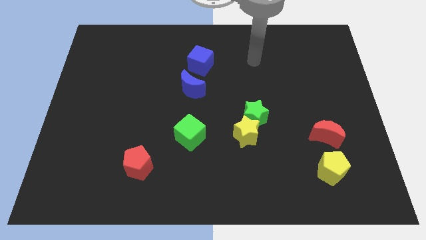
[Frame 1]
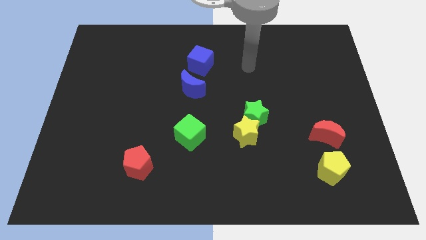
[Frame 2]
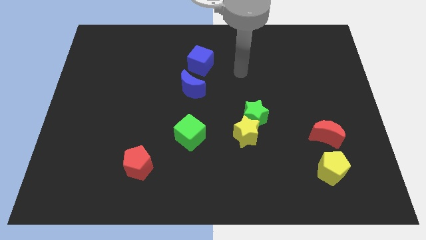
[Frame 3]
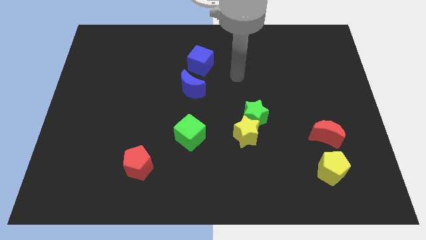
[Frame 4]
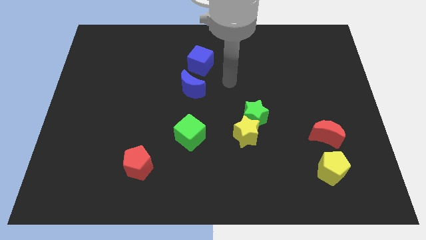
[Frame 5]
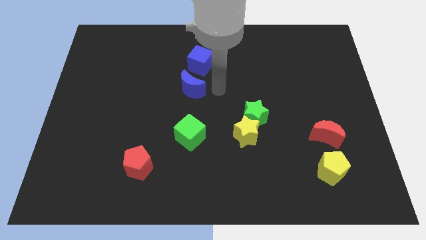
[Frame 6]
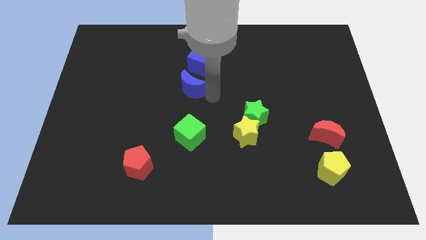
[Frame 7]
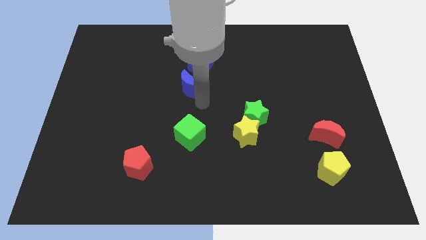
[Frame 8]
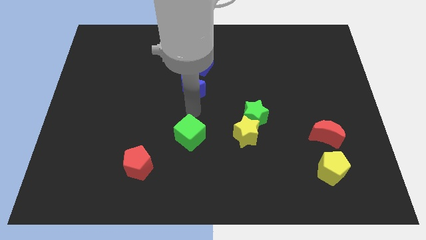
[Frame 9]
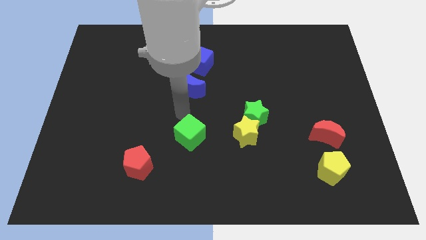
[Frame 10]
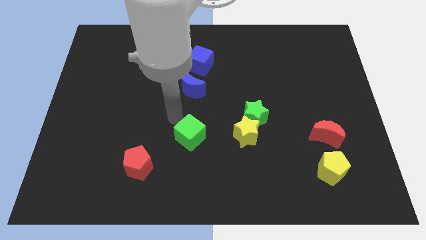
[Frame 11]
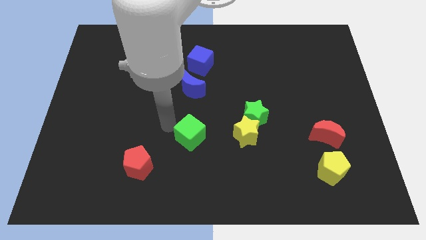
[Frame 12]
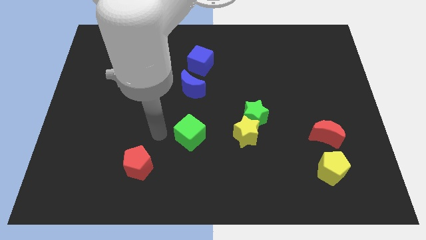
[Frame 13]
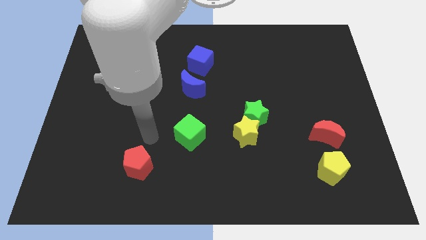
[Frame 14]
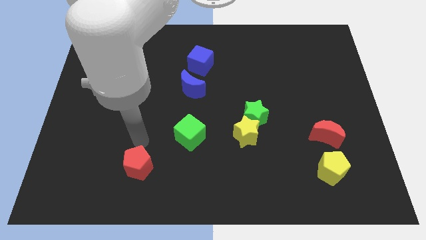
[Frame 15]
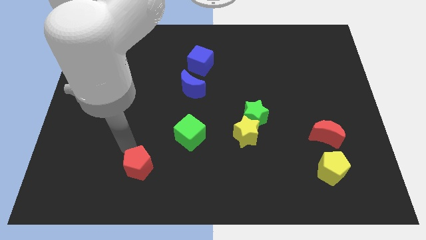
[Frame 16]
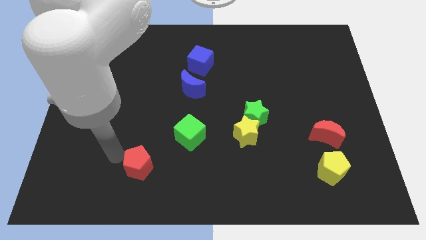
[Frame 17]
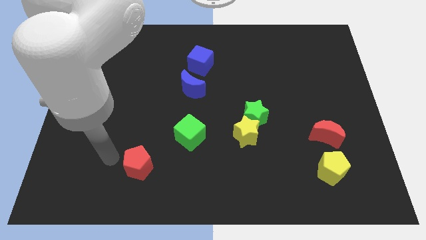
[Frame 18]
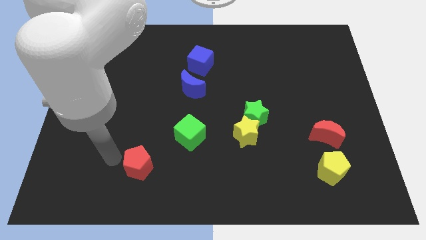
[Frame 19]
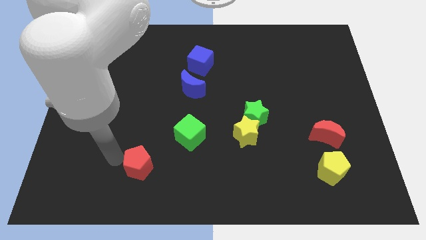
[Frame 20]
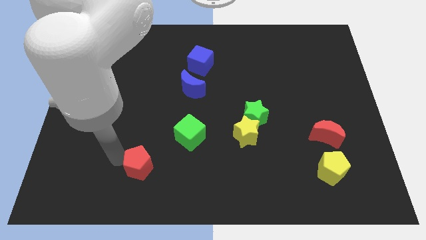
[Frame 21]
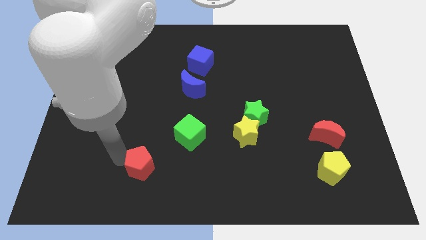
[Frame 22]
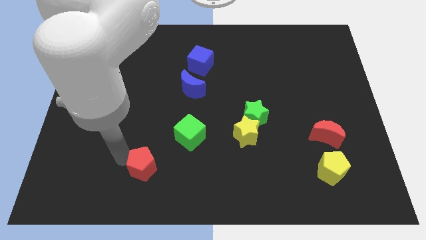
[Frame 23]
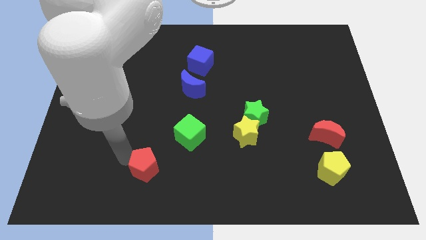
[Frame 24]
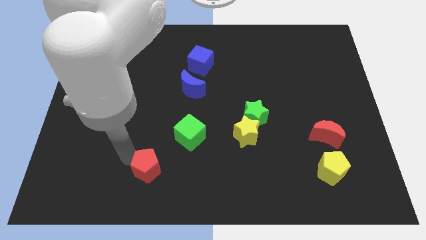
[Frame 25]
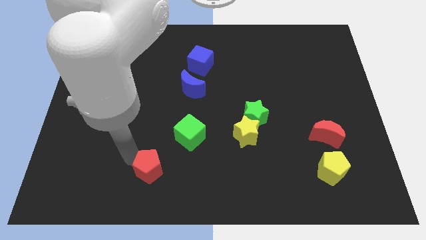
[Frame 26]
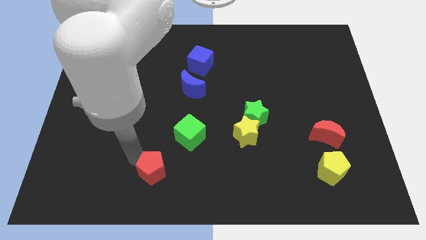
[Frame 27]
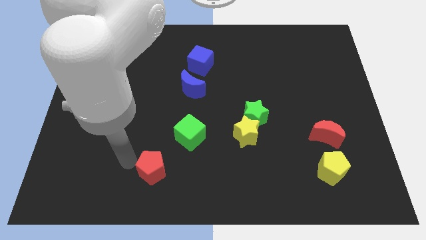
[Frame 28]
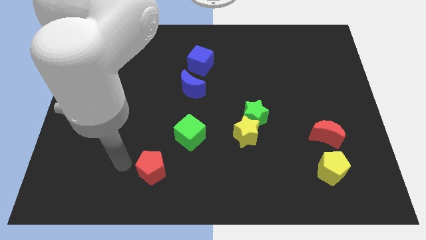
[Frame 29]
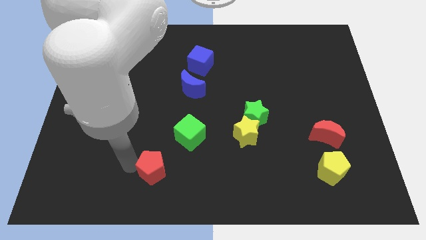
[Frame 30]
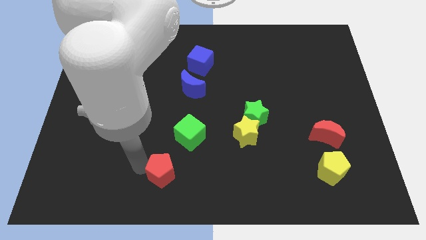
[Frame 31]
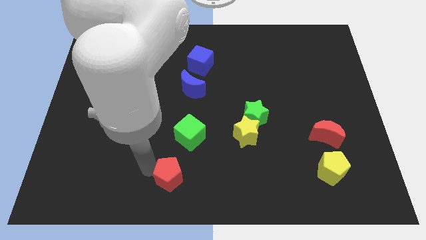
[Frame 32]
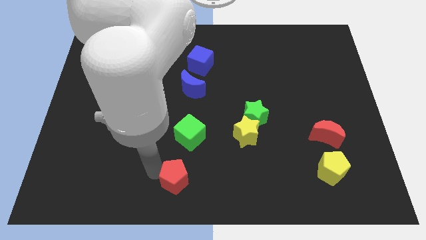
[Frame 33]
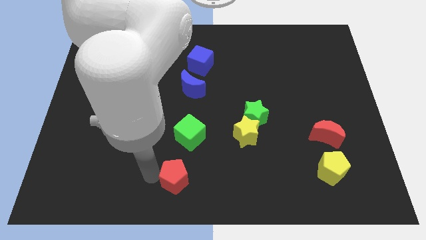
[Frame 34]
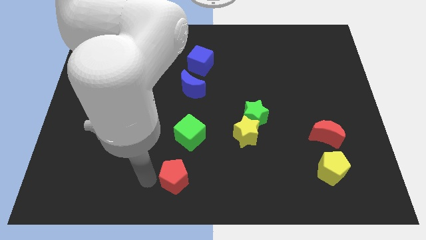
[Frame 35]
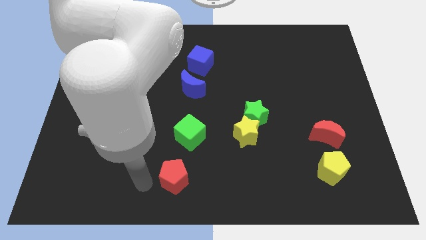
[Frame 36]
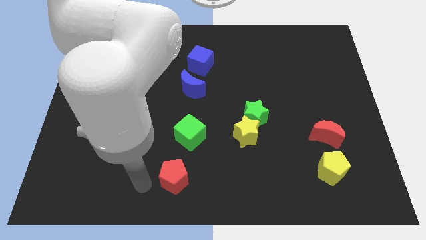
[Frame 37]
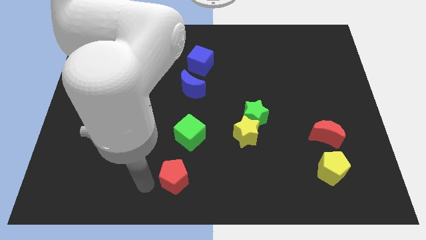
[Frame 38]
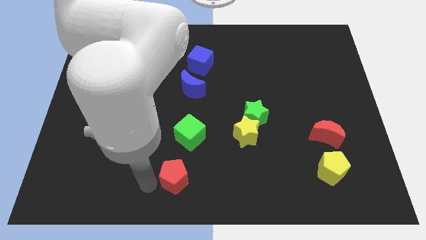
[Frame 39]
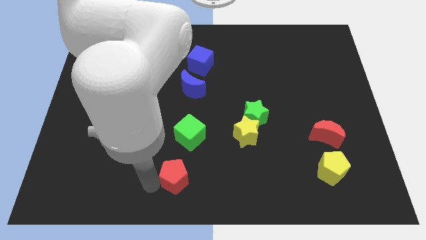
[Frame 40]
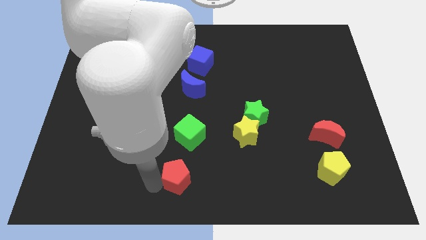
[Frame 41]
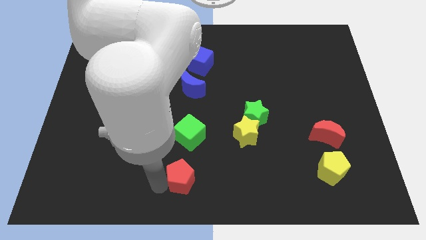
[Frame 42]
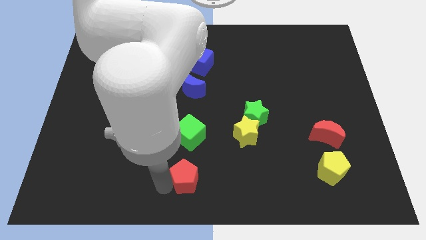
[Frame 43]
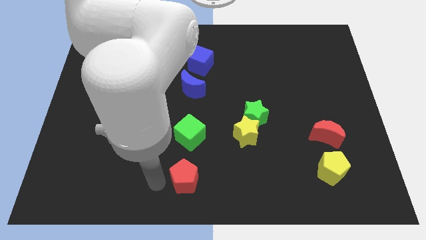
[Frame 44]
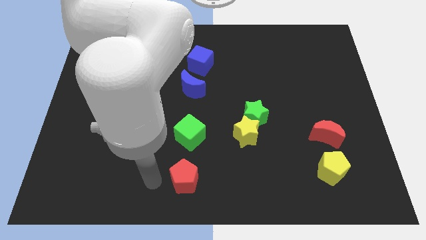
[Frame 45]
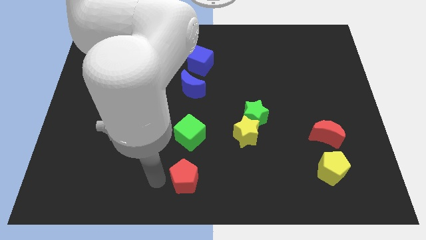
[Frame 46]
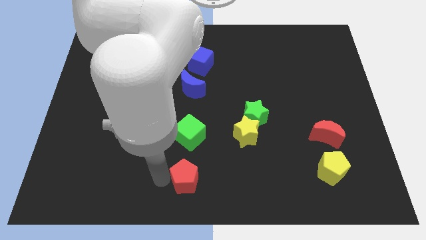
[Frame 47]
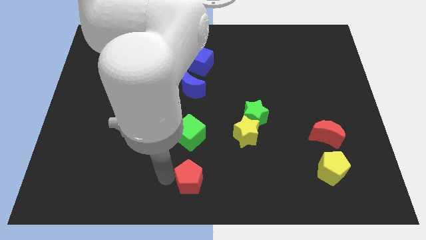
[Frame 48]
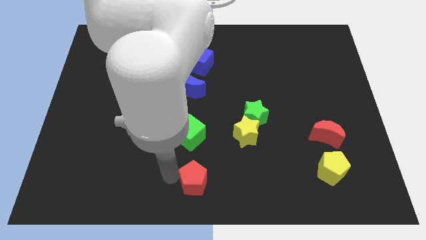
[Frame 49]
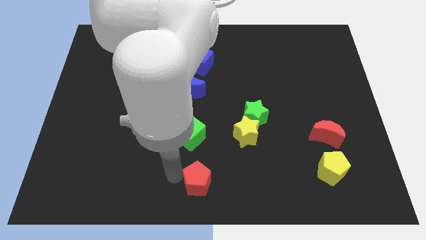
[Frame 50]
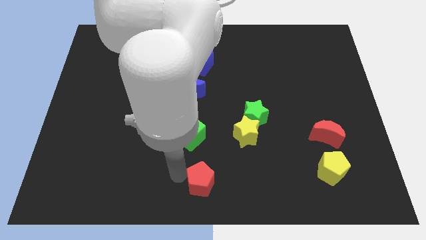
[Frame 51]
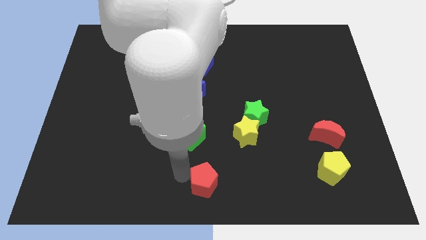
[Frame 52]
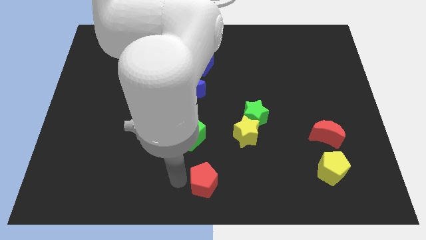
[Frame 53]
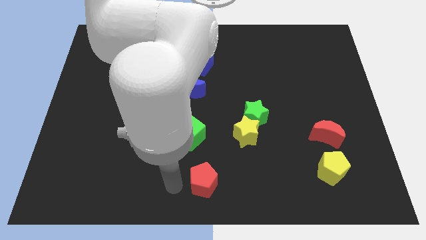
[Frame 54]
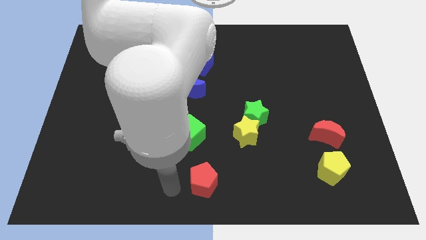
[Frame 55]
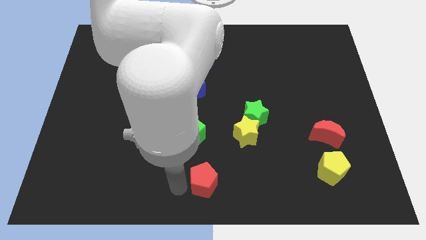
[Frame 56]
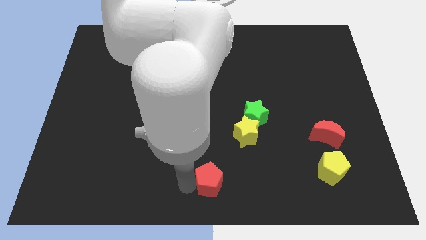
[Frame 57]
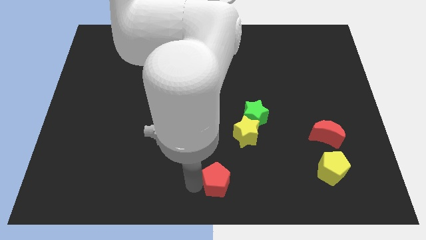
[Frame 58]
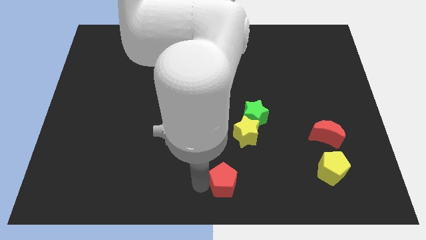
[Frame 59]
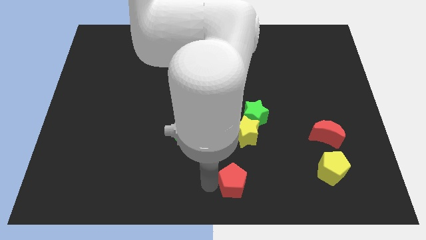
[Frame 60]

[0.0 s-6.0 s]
move the red pentagon to the bottom of the yellow star
